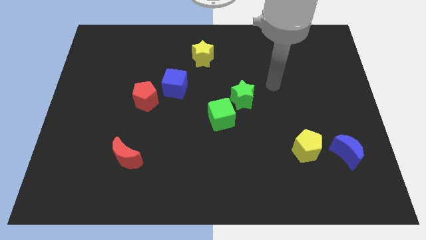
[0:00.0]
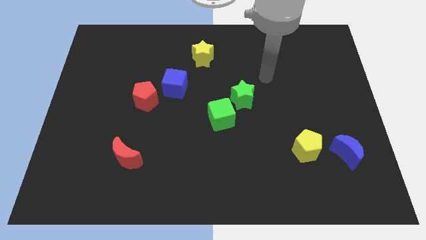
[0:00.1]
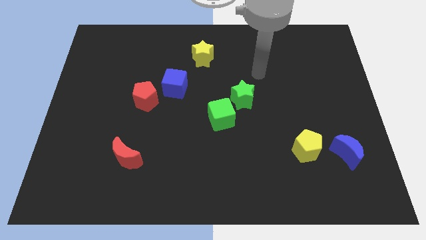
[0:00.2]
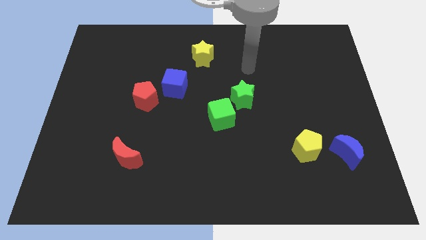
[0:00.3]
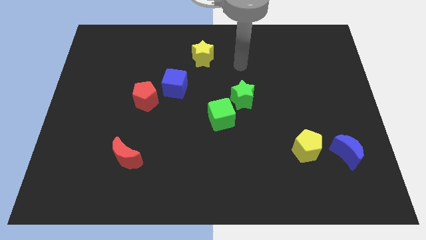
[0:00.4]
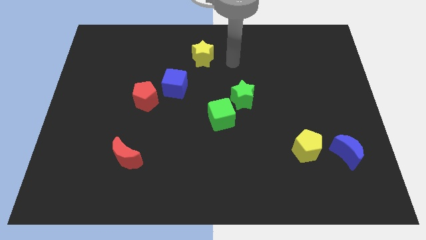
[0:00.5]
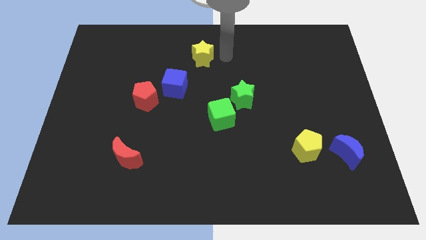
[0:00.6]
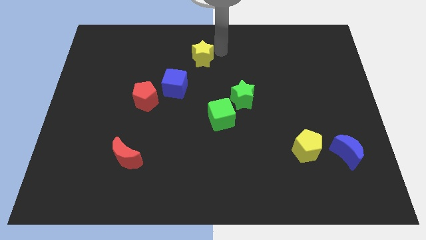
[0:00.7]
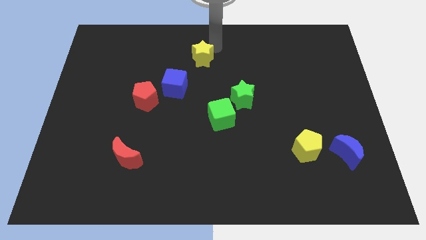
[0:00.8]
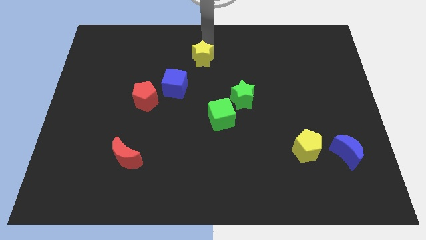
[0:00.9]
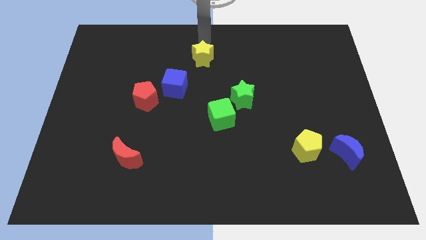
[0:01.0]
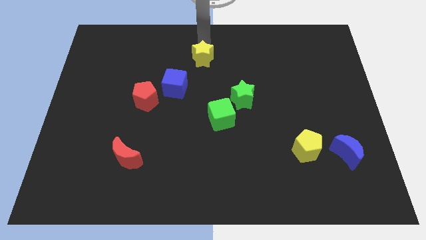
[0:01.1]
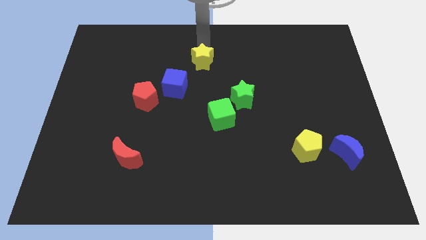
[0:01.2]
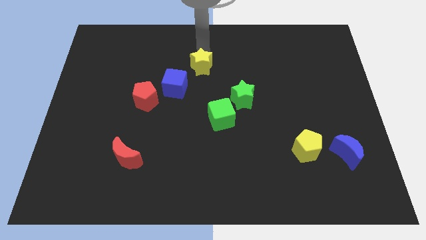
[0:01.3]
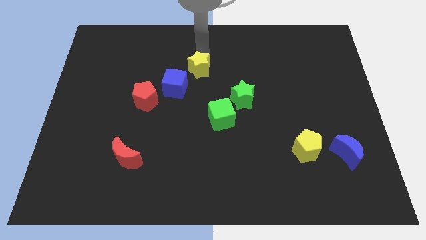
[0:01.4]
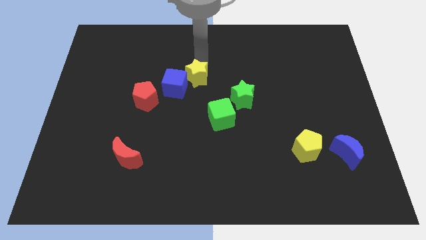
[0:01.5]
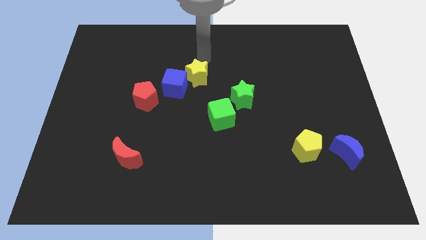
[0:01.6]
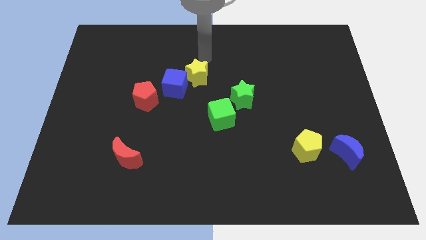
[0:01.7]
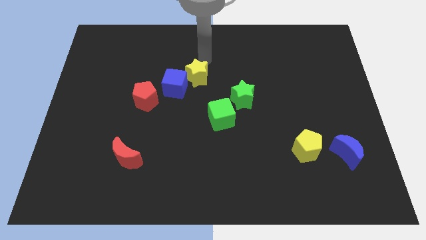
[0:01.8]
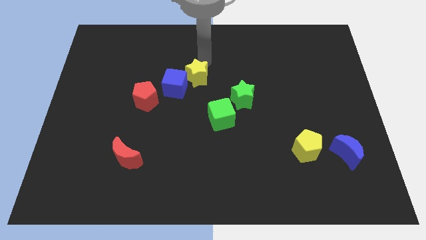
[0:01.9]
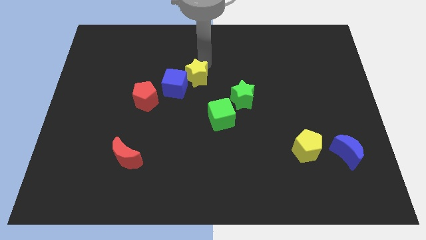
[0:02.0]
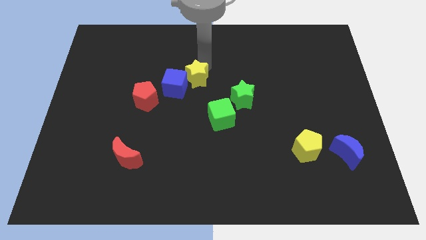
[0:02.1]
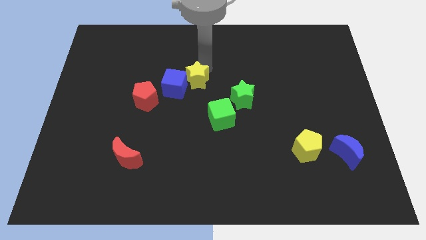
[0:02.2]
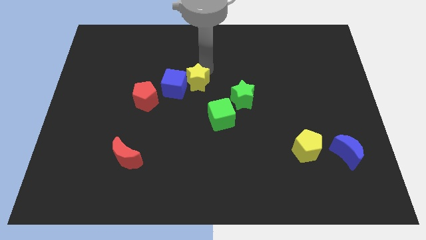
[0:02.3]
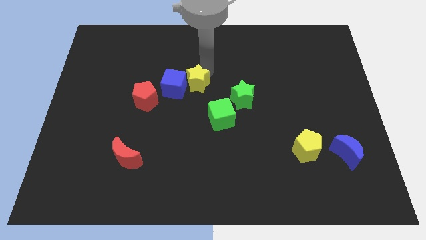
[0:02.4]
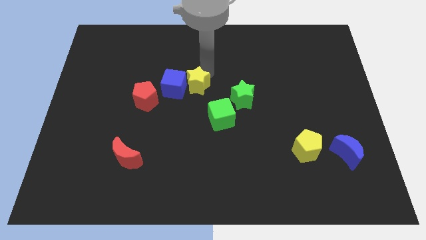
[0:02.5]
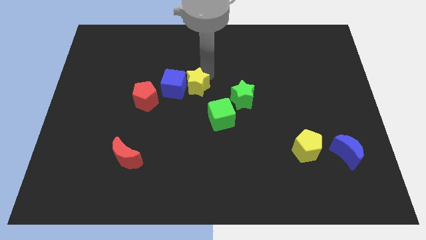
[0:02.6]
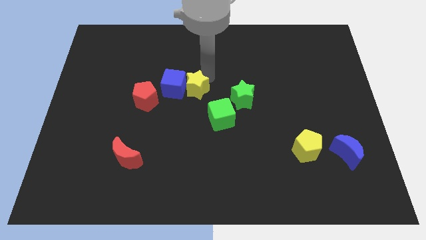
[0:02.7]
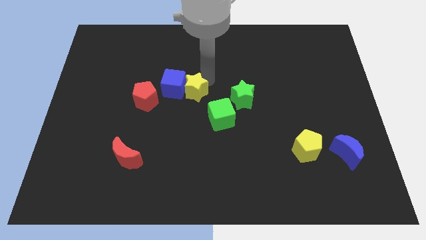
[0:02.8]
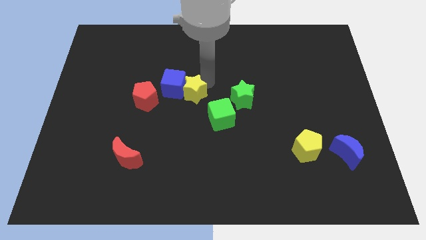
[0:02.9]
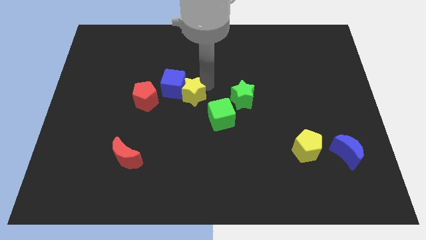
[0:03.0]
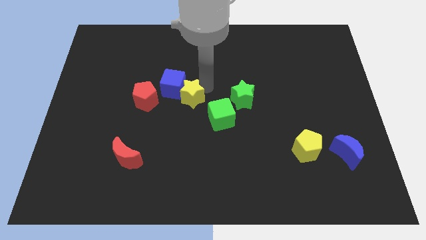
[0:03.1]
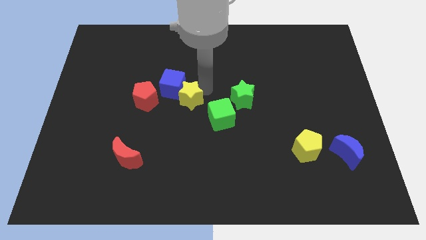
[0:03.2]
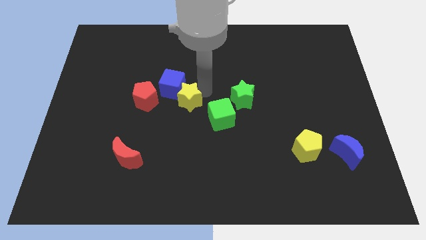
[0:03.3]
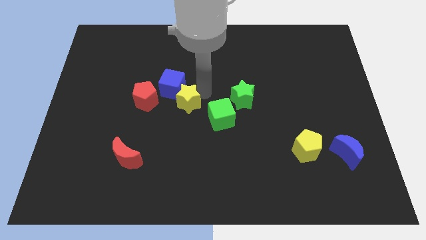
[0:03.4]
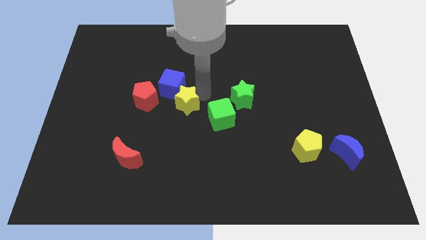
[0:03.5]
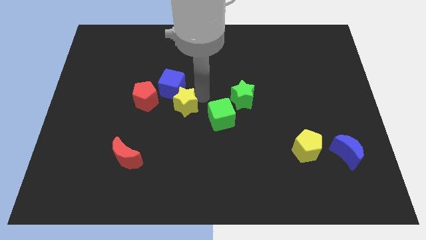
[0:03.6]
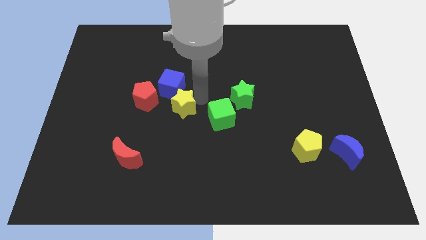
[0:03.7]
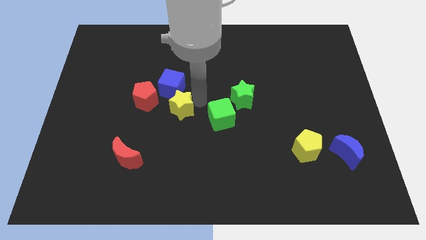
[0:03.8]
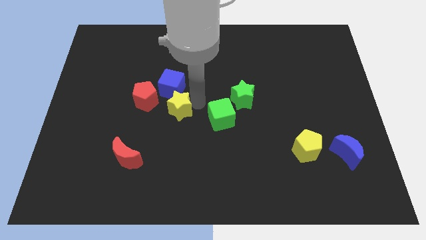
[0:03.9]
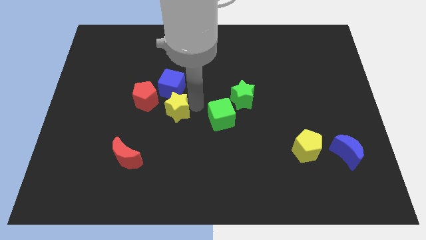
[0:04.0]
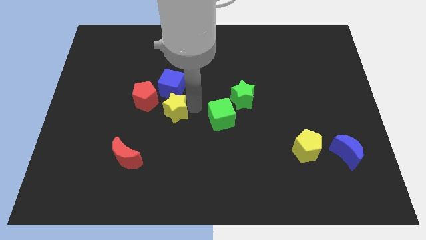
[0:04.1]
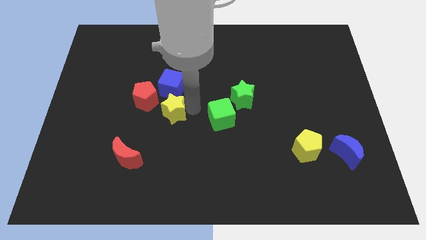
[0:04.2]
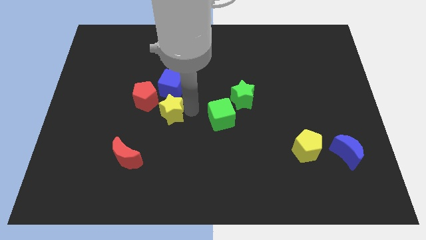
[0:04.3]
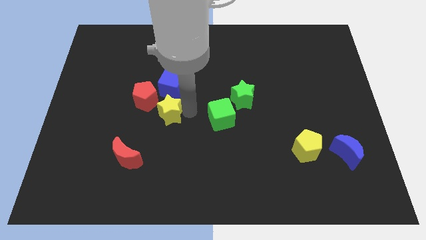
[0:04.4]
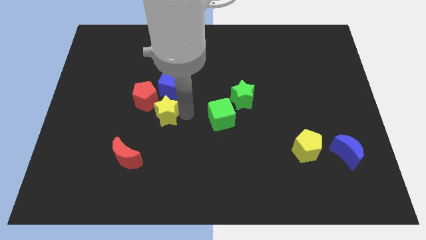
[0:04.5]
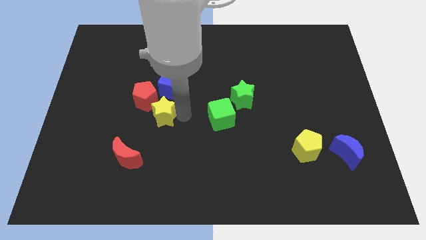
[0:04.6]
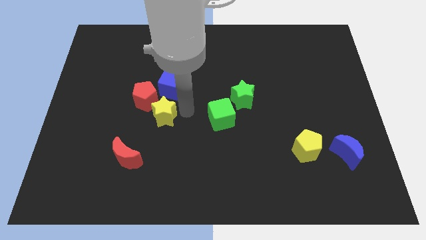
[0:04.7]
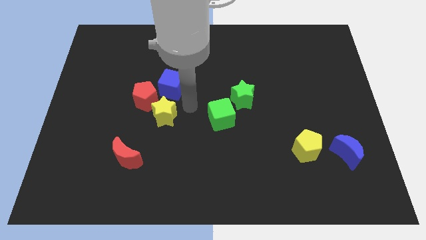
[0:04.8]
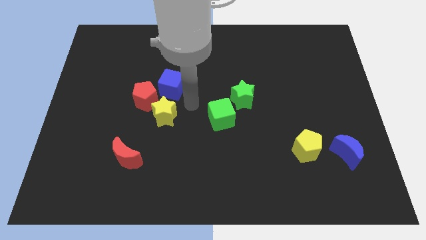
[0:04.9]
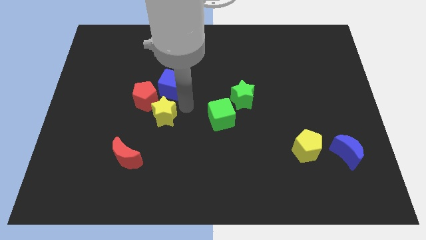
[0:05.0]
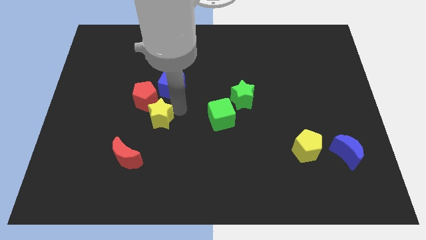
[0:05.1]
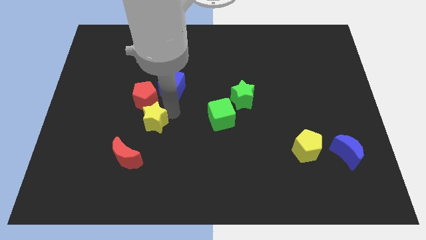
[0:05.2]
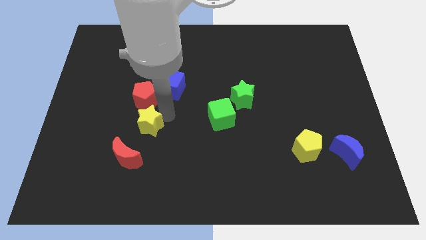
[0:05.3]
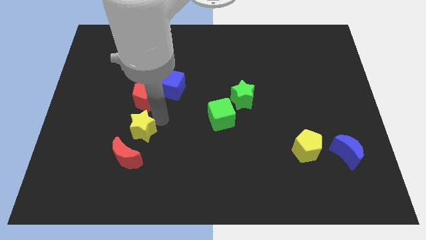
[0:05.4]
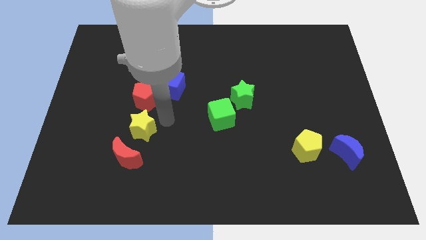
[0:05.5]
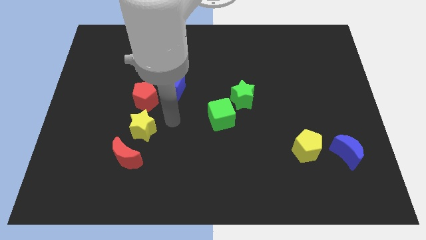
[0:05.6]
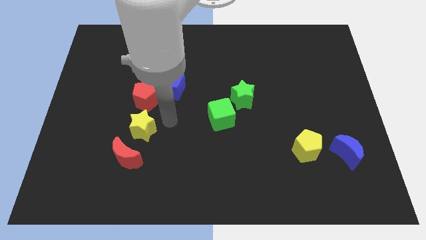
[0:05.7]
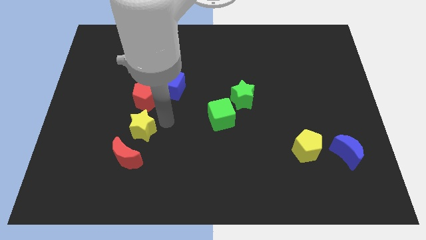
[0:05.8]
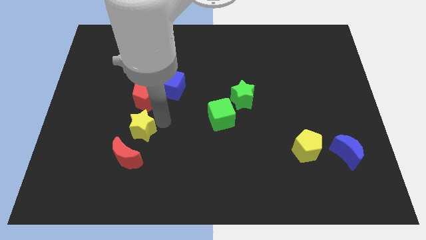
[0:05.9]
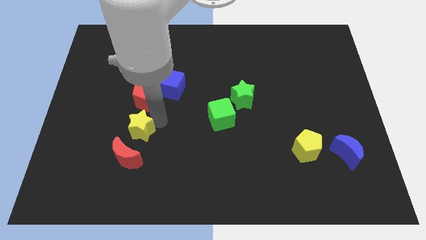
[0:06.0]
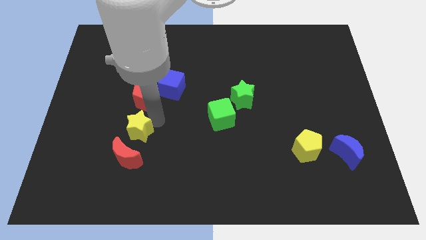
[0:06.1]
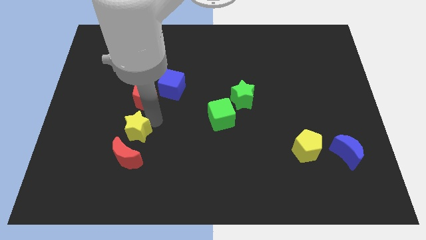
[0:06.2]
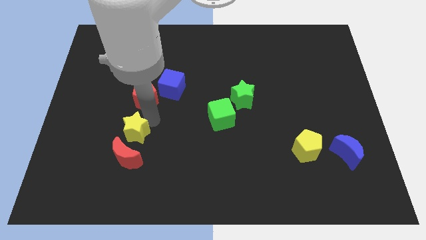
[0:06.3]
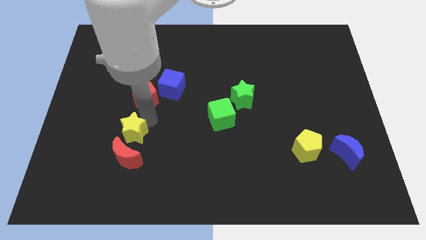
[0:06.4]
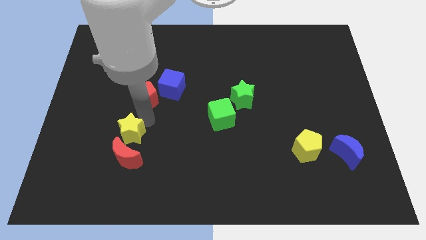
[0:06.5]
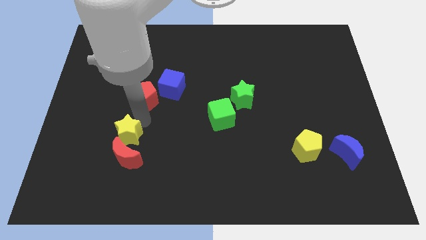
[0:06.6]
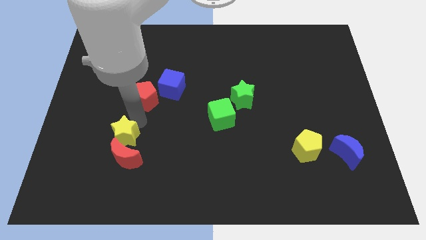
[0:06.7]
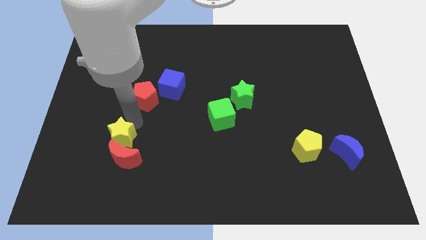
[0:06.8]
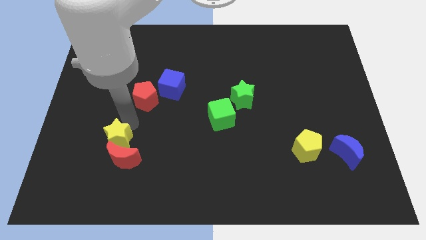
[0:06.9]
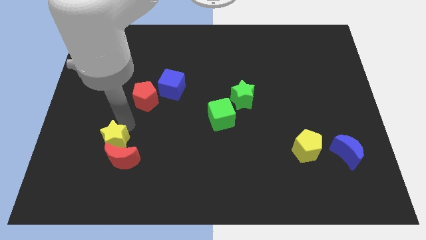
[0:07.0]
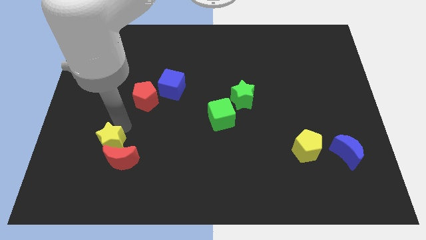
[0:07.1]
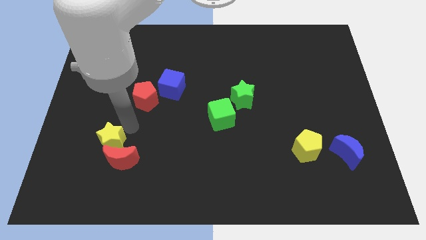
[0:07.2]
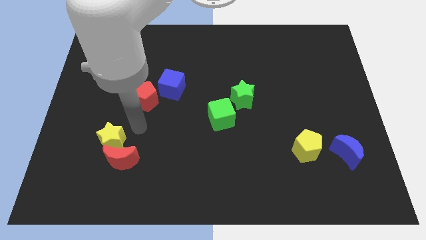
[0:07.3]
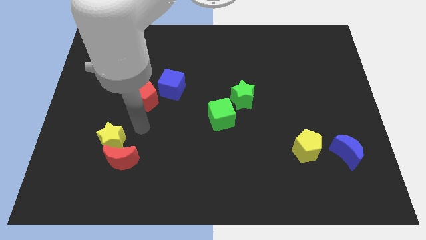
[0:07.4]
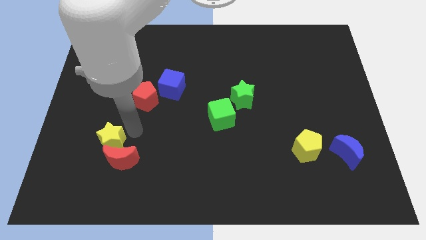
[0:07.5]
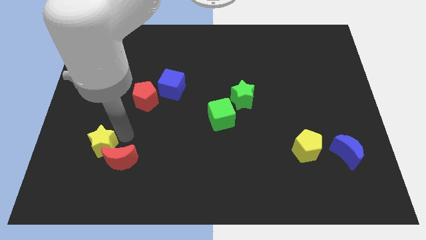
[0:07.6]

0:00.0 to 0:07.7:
put the yellow star to the left of the red moon
